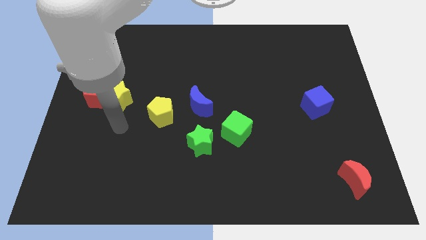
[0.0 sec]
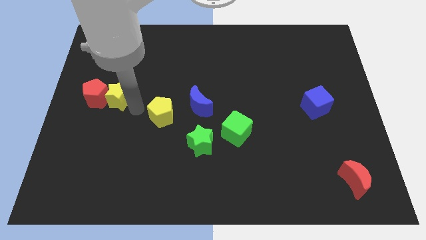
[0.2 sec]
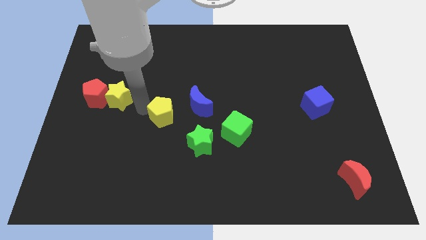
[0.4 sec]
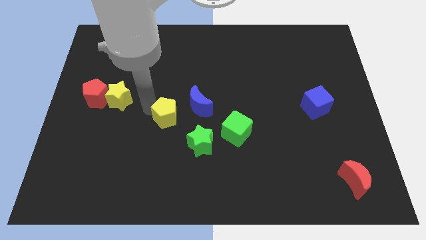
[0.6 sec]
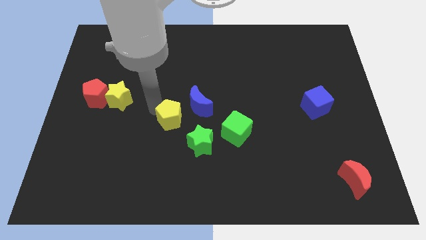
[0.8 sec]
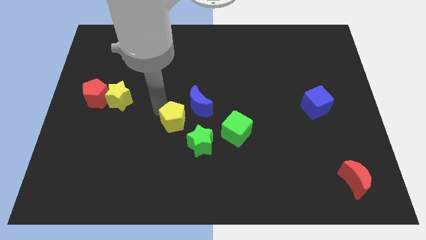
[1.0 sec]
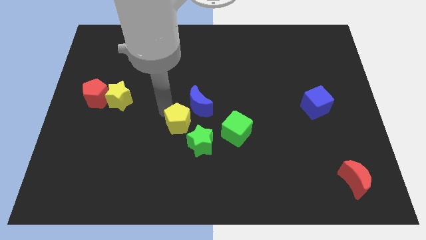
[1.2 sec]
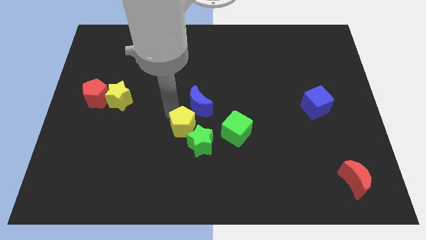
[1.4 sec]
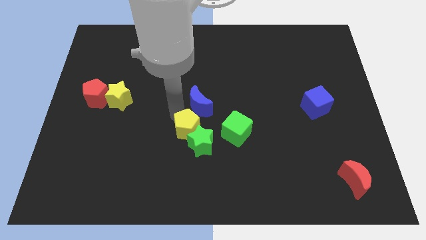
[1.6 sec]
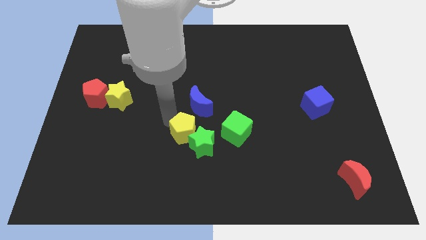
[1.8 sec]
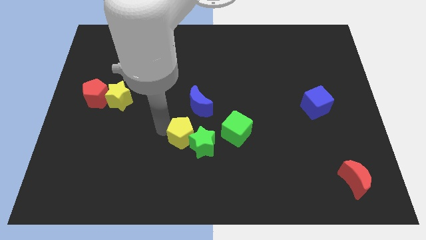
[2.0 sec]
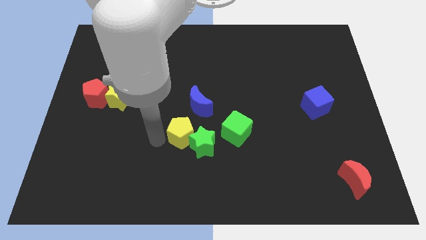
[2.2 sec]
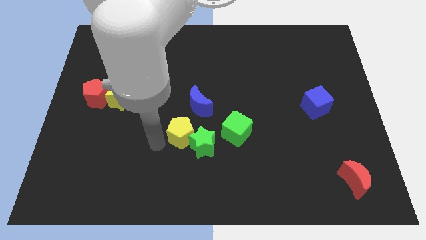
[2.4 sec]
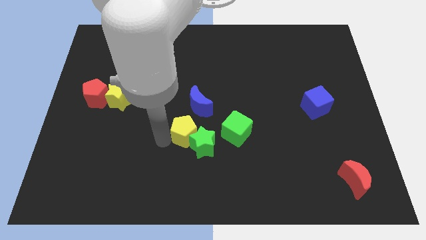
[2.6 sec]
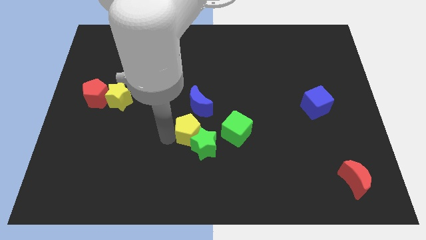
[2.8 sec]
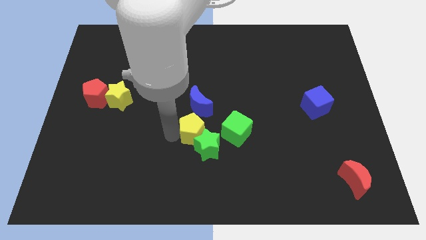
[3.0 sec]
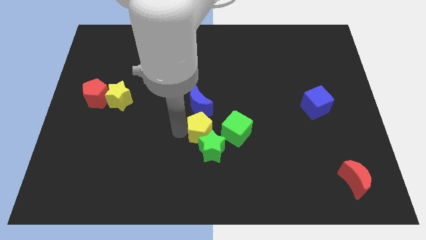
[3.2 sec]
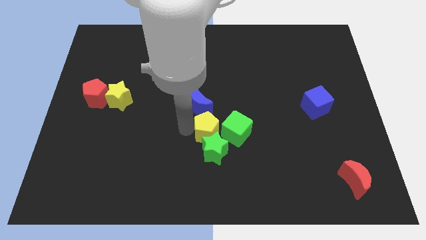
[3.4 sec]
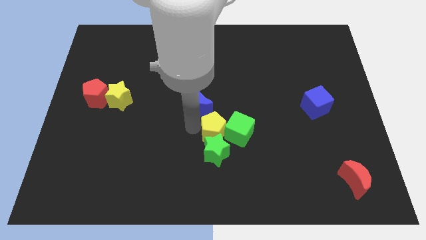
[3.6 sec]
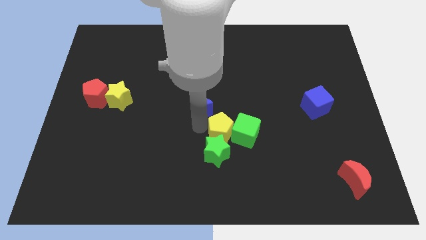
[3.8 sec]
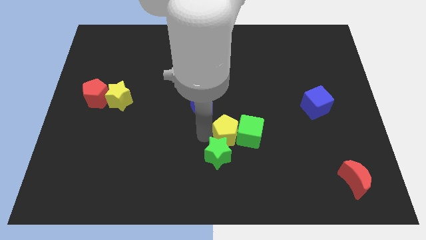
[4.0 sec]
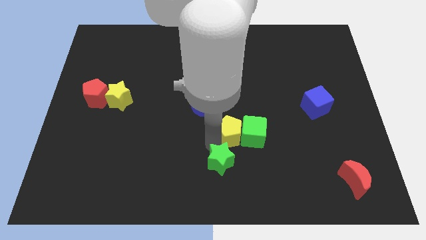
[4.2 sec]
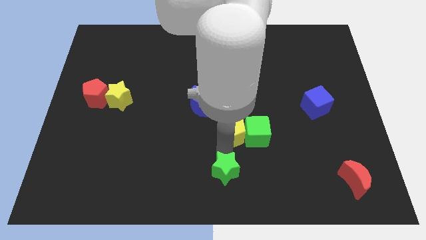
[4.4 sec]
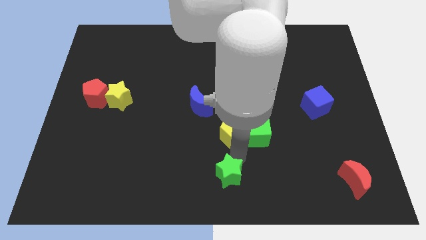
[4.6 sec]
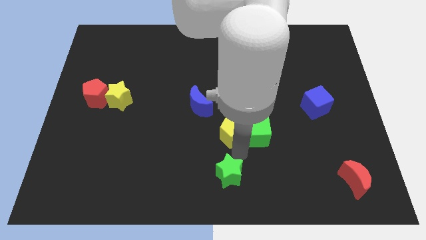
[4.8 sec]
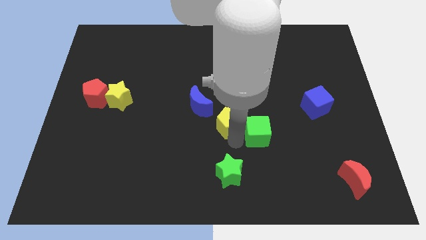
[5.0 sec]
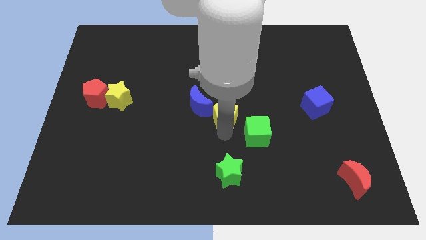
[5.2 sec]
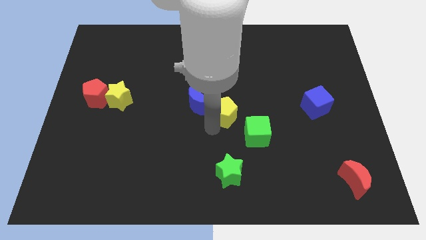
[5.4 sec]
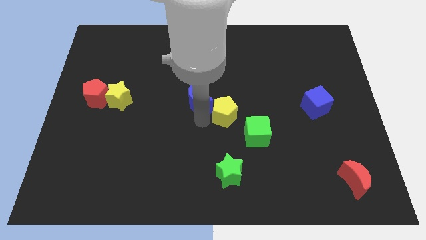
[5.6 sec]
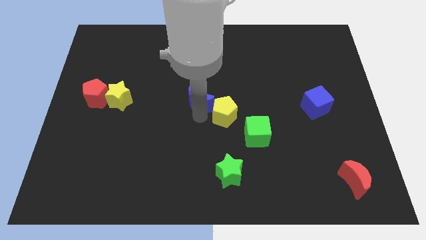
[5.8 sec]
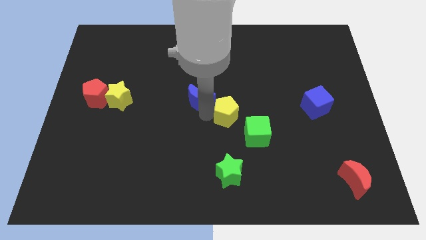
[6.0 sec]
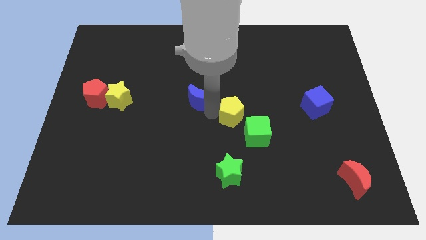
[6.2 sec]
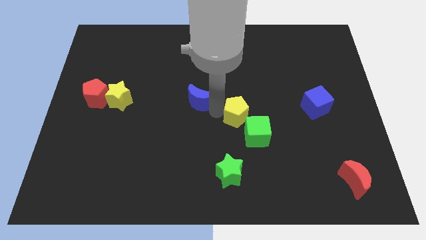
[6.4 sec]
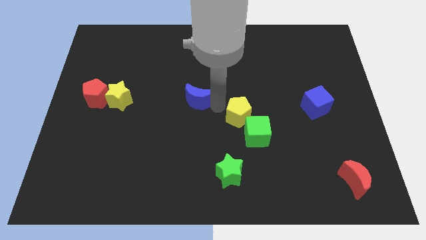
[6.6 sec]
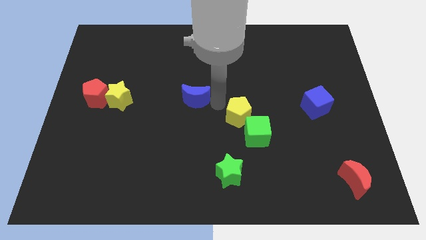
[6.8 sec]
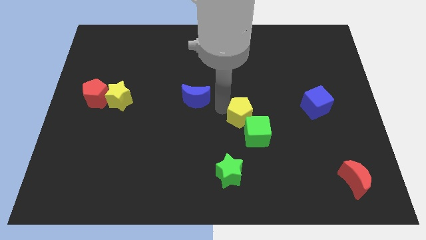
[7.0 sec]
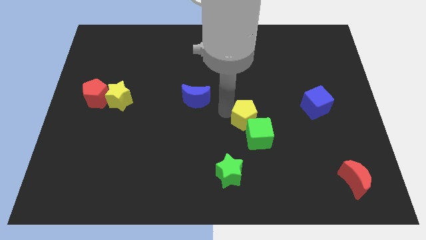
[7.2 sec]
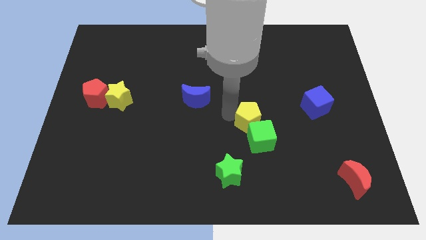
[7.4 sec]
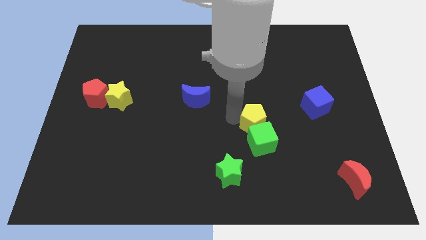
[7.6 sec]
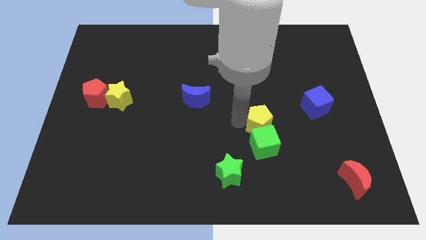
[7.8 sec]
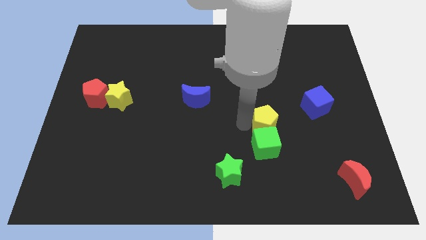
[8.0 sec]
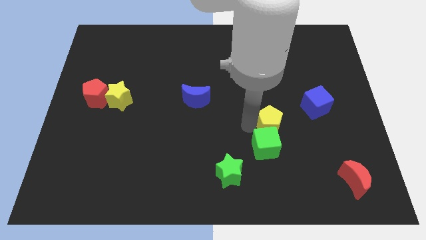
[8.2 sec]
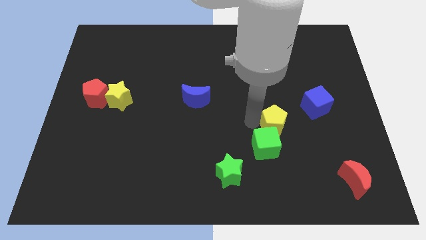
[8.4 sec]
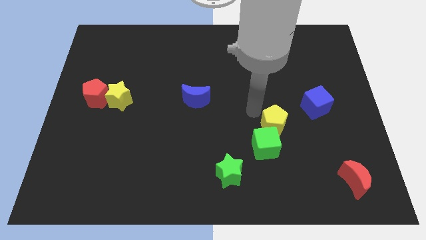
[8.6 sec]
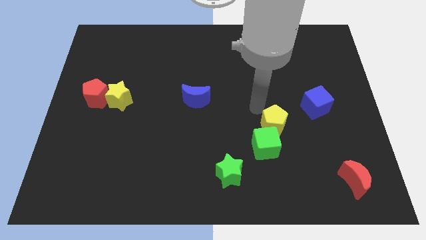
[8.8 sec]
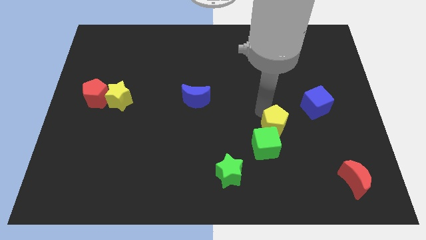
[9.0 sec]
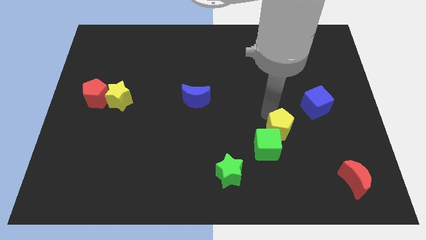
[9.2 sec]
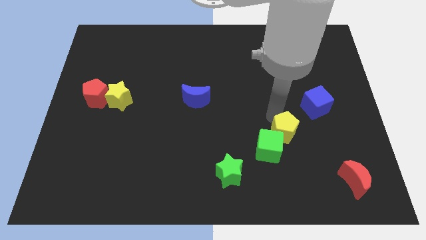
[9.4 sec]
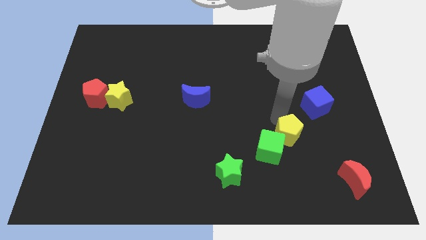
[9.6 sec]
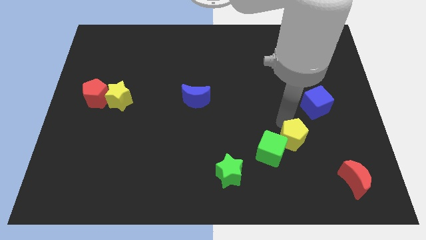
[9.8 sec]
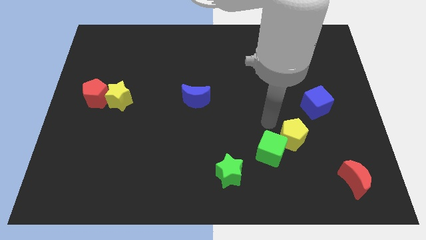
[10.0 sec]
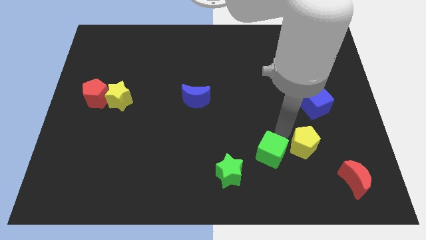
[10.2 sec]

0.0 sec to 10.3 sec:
move the yellow pentagon to the top left side of the red moon

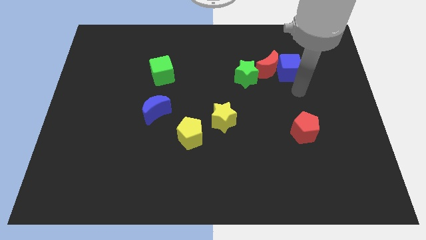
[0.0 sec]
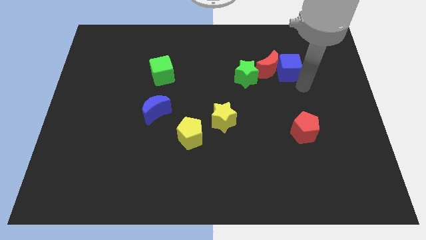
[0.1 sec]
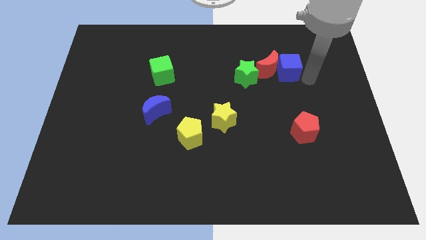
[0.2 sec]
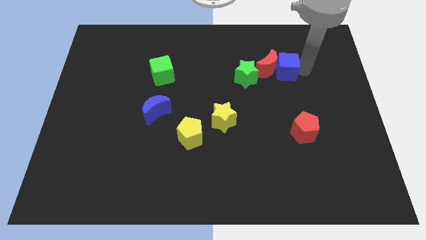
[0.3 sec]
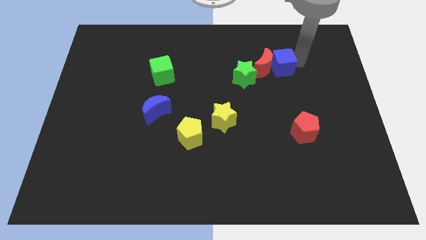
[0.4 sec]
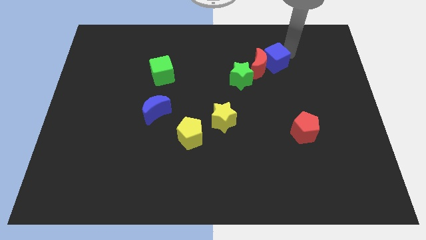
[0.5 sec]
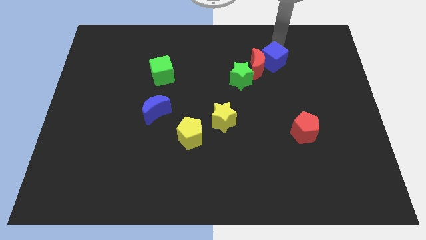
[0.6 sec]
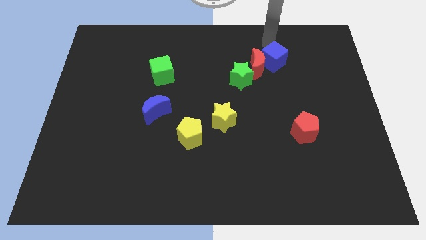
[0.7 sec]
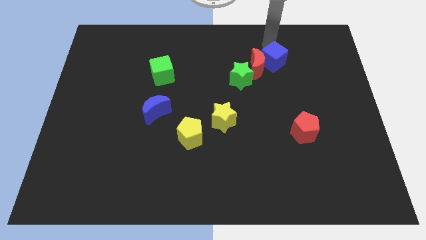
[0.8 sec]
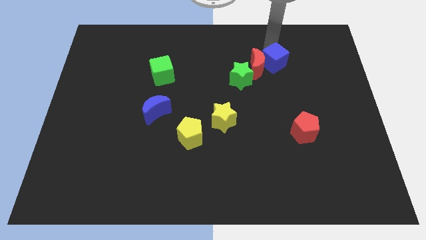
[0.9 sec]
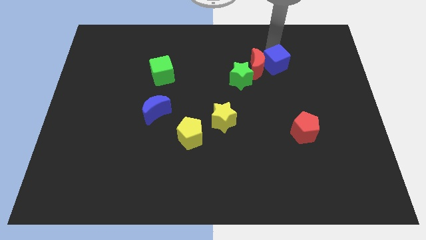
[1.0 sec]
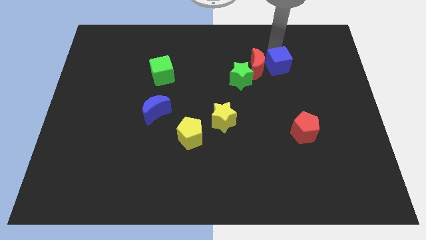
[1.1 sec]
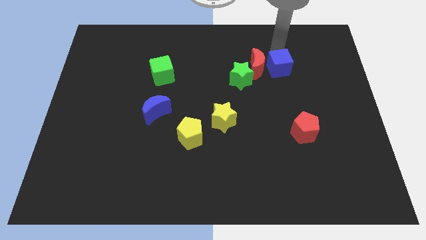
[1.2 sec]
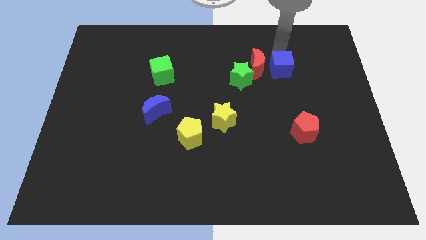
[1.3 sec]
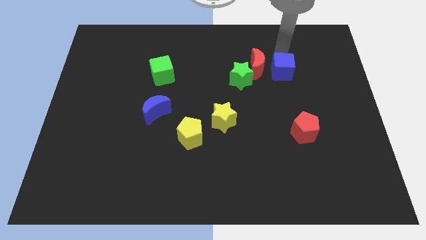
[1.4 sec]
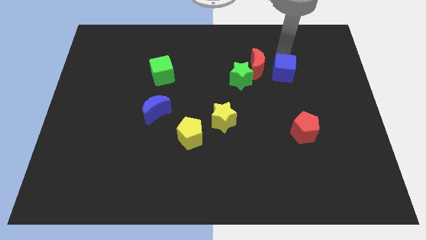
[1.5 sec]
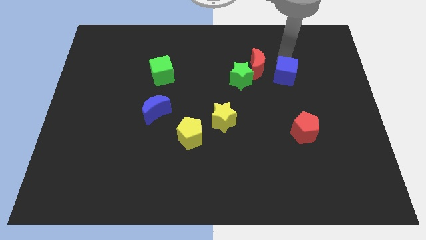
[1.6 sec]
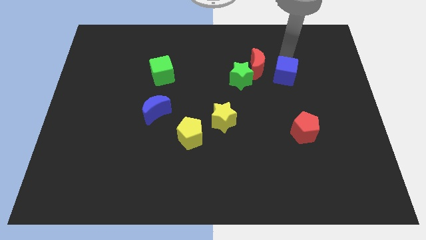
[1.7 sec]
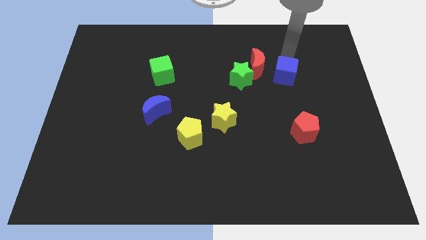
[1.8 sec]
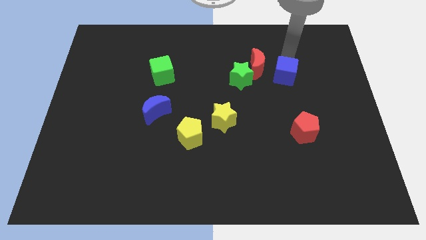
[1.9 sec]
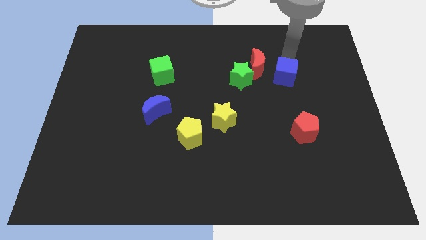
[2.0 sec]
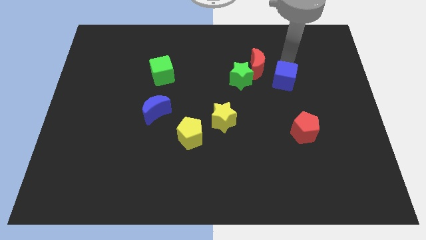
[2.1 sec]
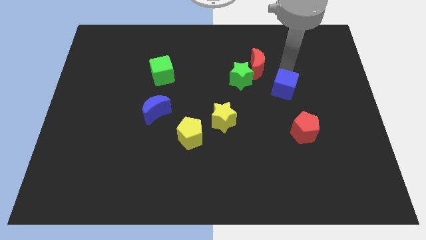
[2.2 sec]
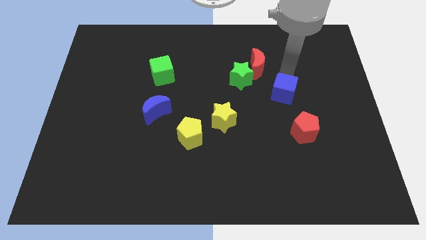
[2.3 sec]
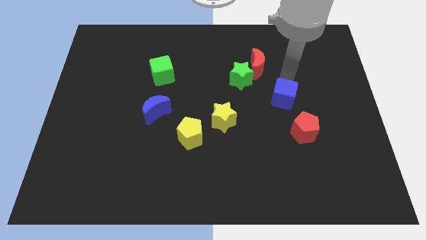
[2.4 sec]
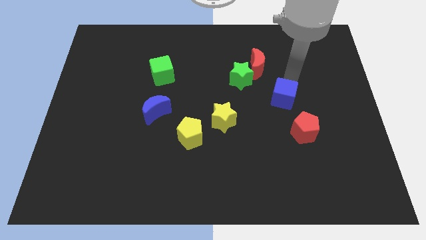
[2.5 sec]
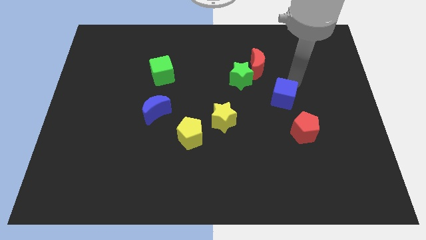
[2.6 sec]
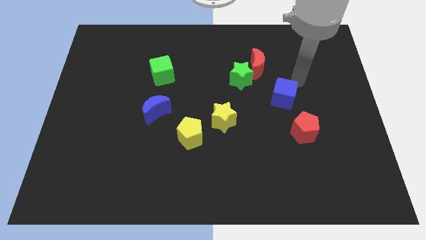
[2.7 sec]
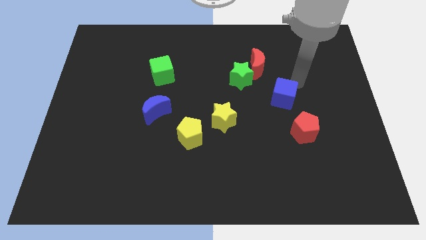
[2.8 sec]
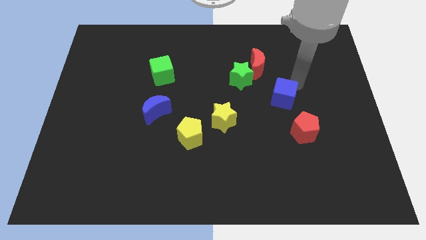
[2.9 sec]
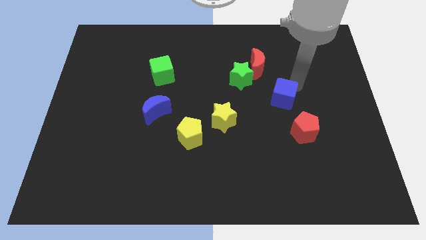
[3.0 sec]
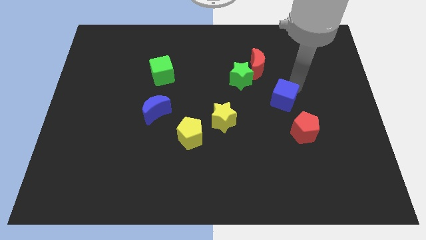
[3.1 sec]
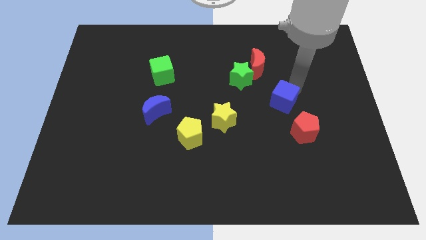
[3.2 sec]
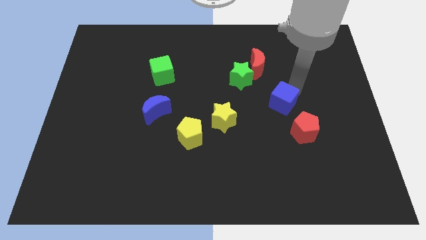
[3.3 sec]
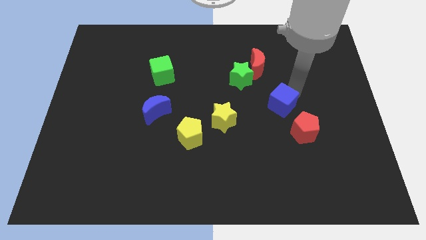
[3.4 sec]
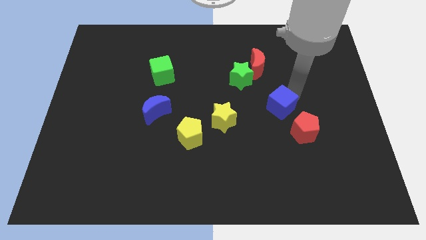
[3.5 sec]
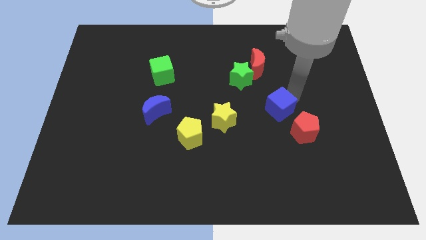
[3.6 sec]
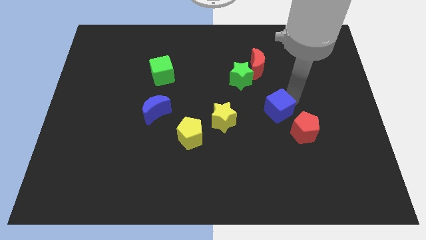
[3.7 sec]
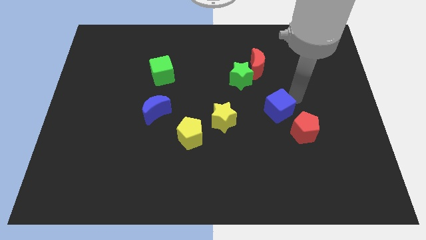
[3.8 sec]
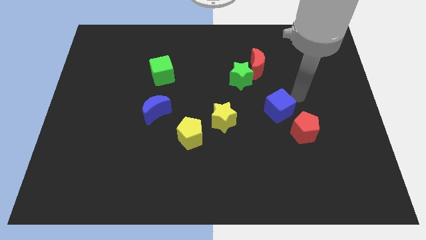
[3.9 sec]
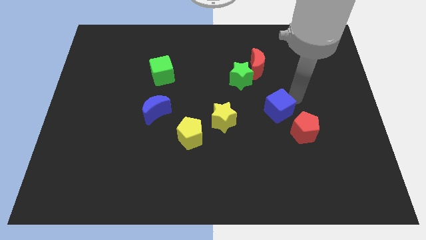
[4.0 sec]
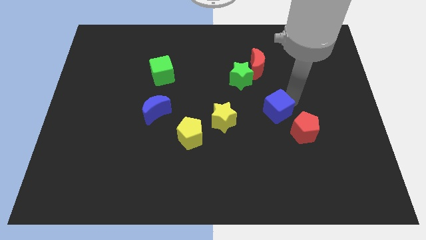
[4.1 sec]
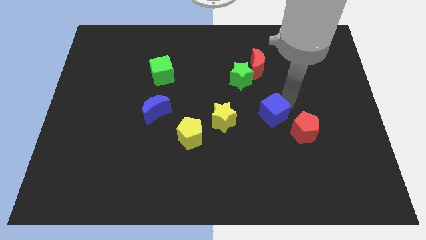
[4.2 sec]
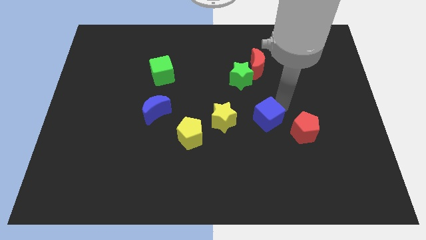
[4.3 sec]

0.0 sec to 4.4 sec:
slide the blue cube just left of the red pentagon
